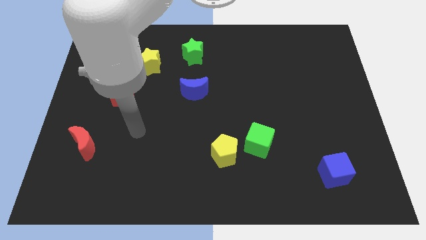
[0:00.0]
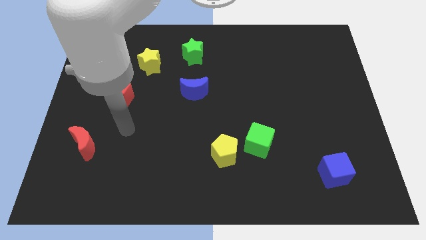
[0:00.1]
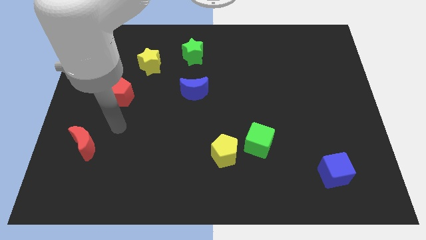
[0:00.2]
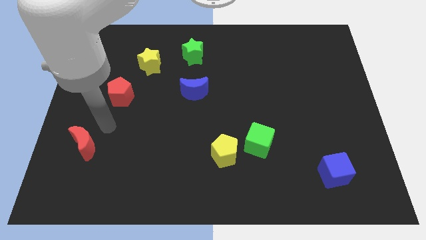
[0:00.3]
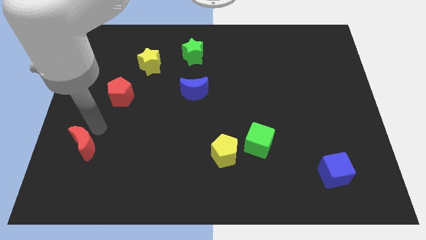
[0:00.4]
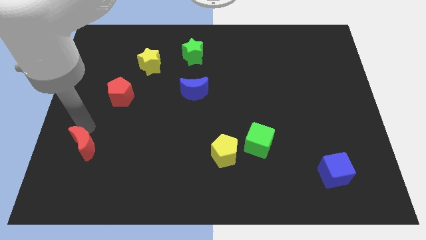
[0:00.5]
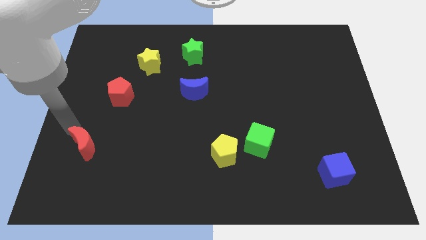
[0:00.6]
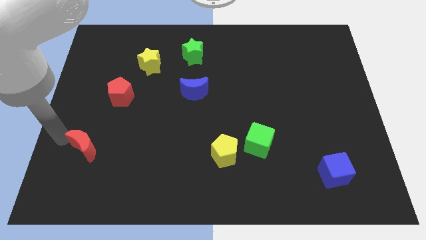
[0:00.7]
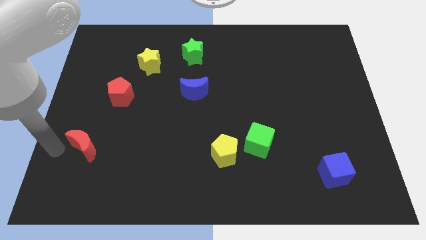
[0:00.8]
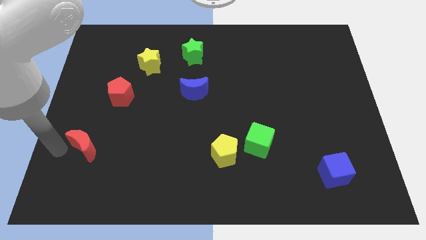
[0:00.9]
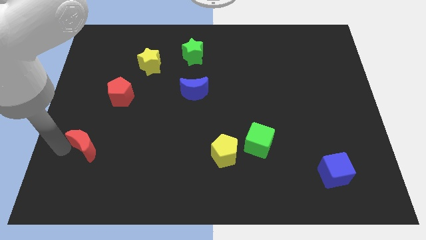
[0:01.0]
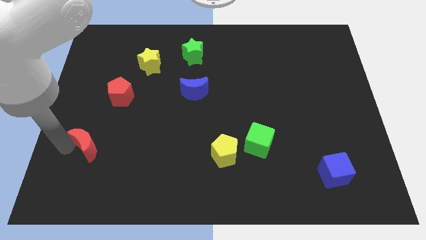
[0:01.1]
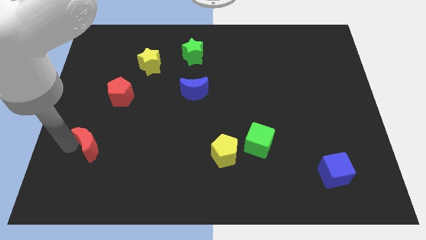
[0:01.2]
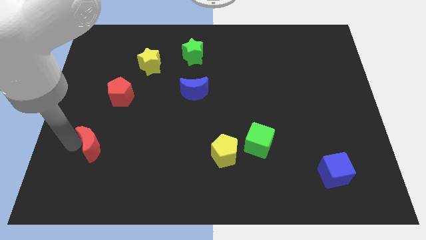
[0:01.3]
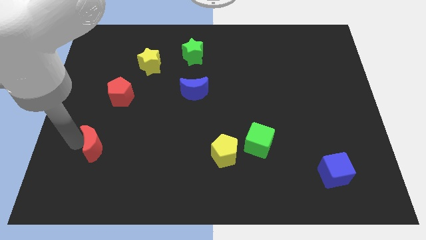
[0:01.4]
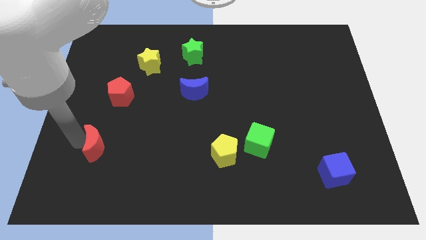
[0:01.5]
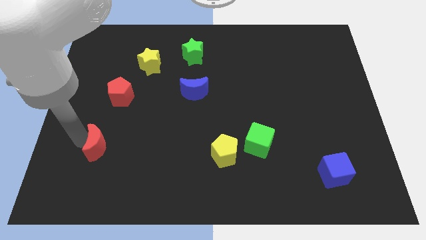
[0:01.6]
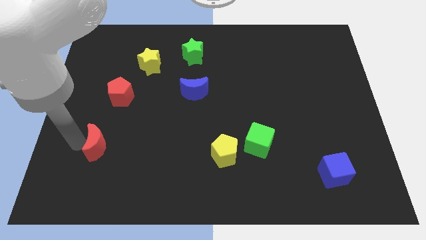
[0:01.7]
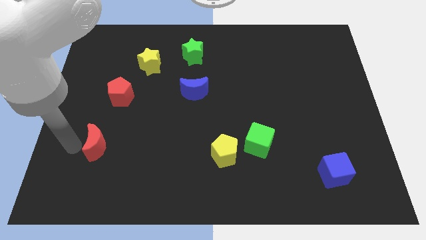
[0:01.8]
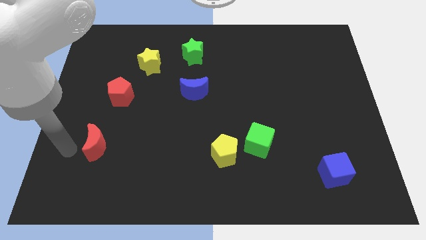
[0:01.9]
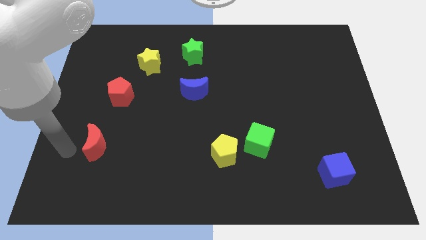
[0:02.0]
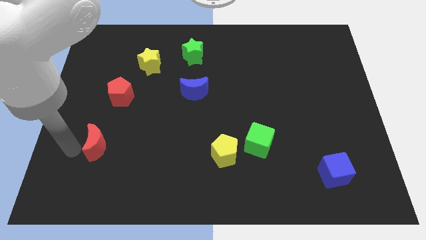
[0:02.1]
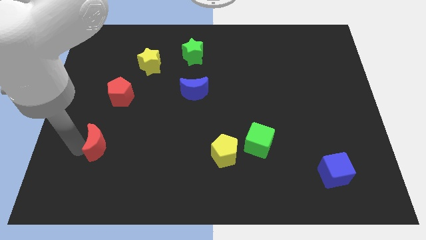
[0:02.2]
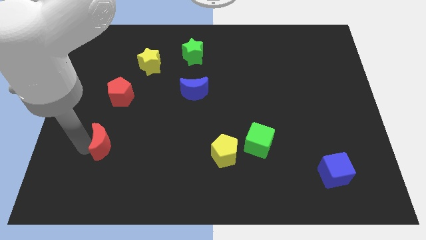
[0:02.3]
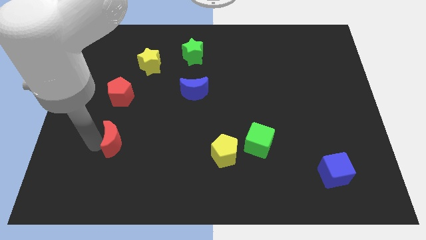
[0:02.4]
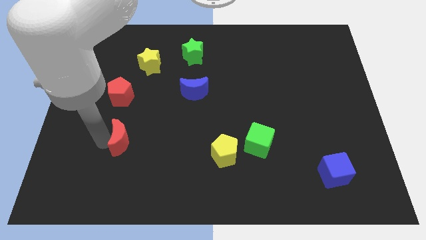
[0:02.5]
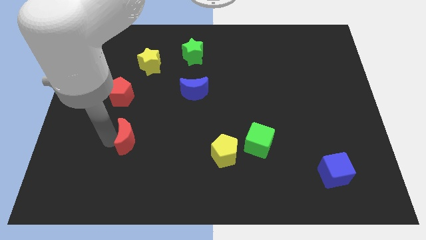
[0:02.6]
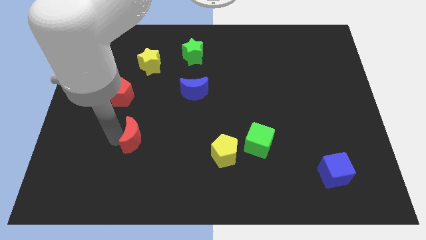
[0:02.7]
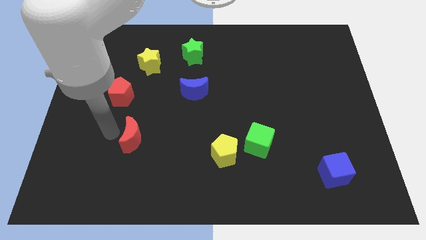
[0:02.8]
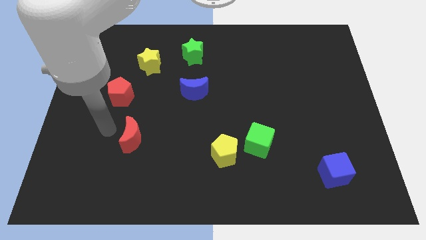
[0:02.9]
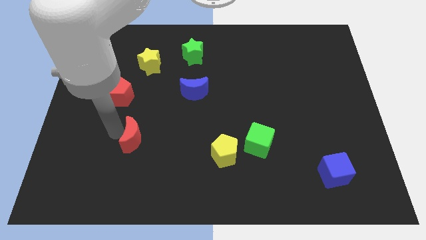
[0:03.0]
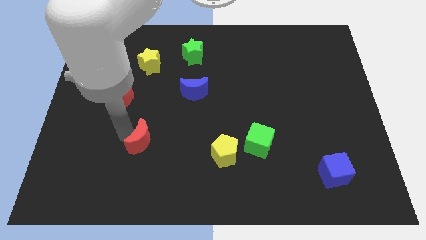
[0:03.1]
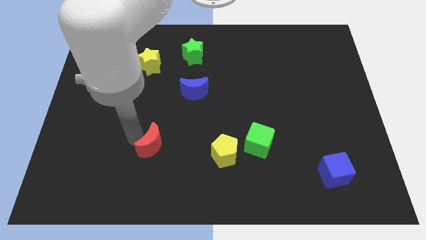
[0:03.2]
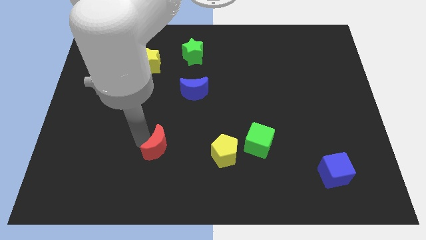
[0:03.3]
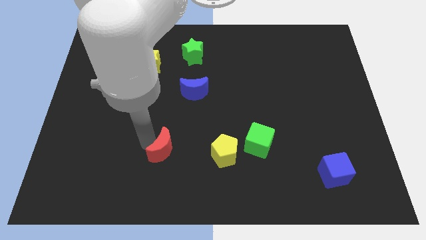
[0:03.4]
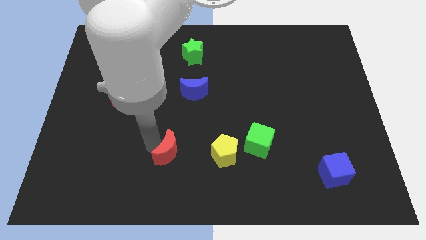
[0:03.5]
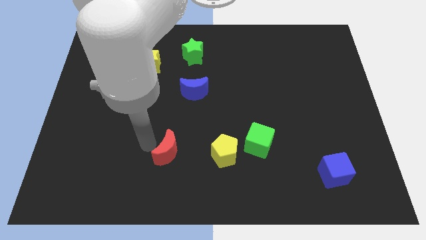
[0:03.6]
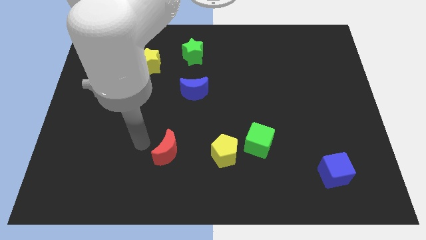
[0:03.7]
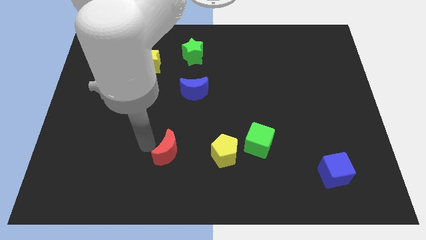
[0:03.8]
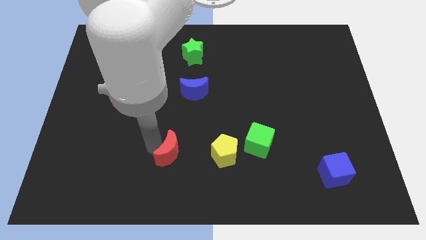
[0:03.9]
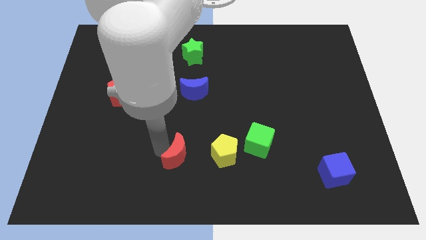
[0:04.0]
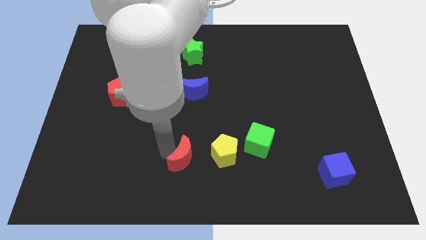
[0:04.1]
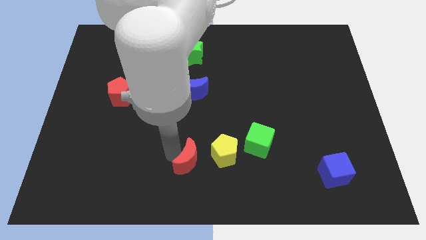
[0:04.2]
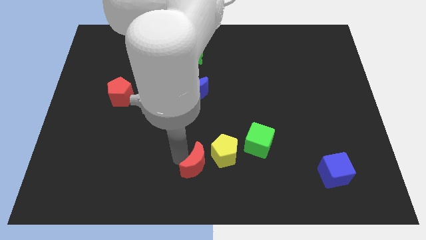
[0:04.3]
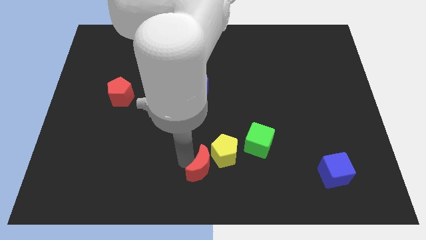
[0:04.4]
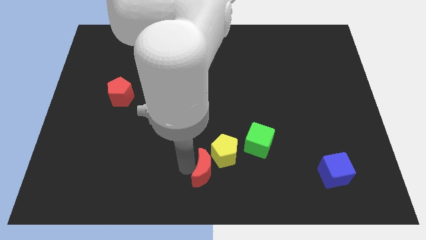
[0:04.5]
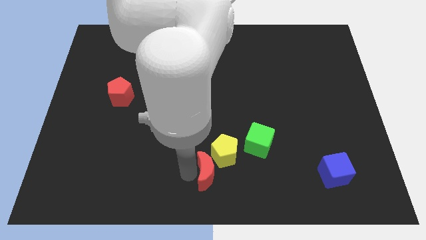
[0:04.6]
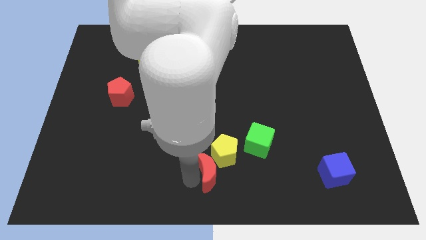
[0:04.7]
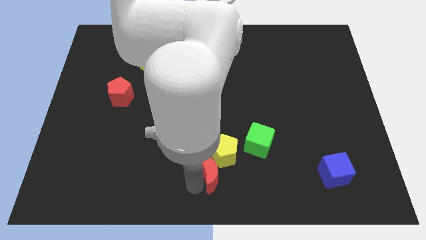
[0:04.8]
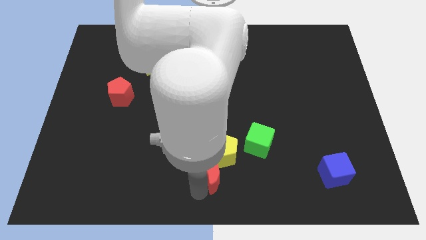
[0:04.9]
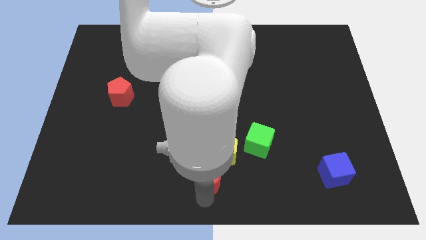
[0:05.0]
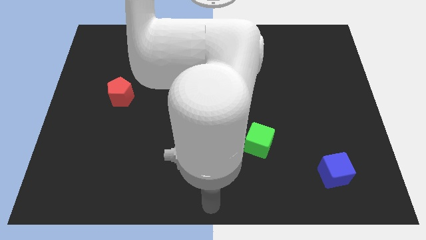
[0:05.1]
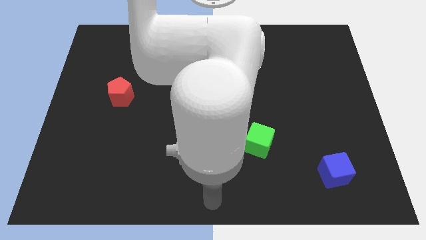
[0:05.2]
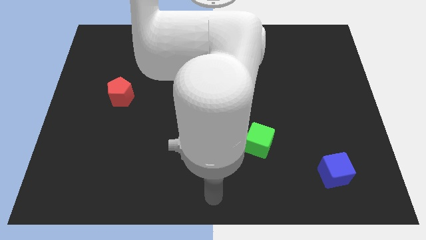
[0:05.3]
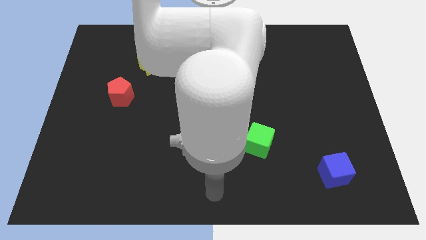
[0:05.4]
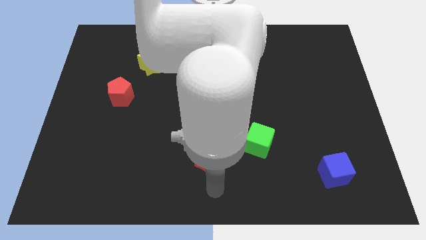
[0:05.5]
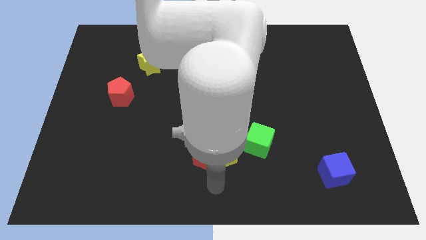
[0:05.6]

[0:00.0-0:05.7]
slide the red moon to the left side of the green cube

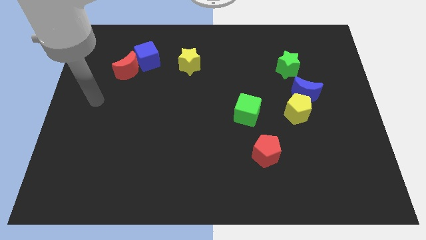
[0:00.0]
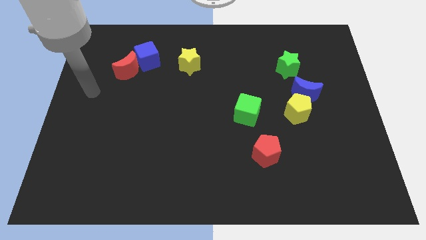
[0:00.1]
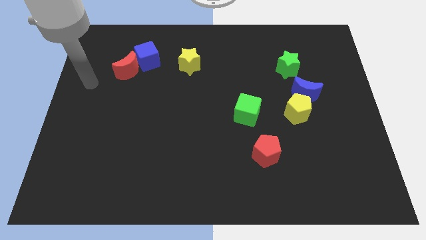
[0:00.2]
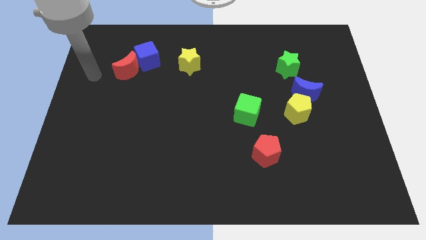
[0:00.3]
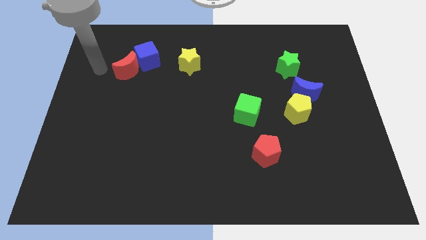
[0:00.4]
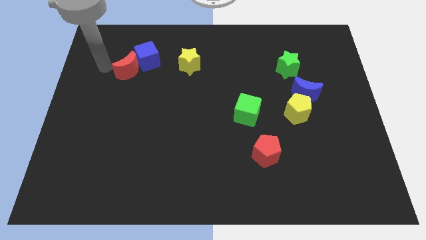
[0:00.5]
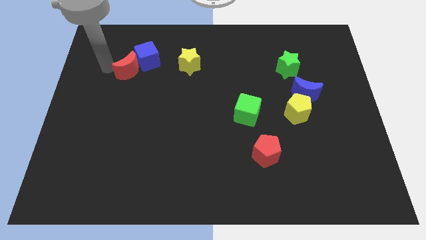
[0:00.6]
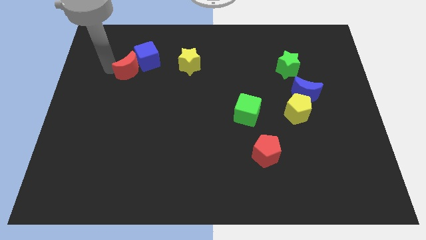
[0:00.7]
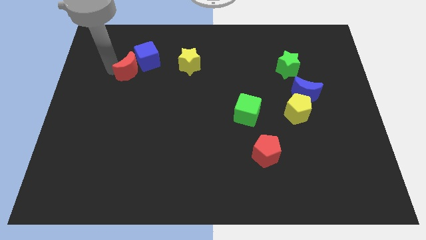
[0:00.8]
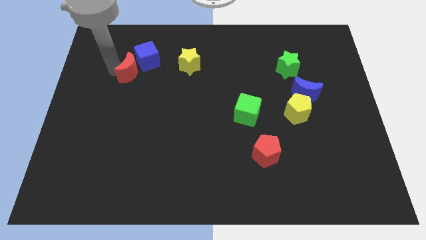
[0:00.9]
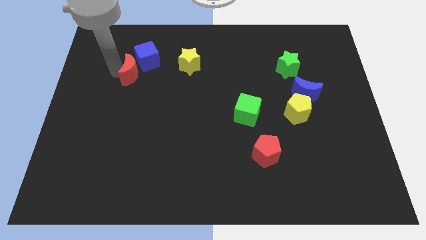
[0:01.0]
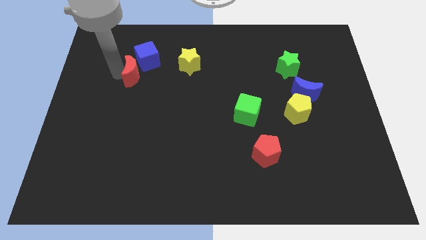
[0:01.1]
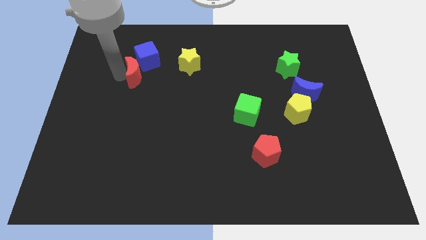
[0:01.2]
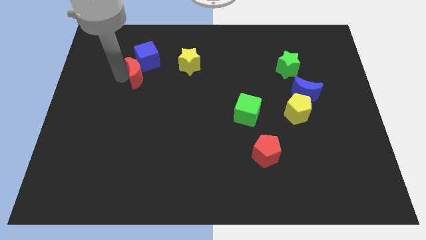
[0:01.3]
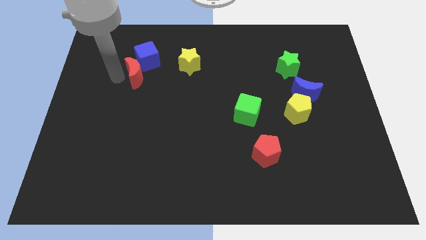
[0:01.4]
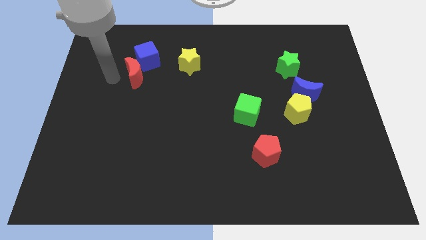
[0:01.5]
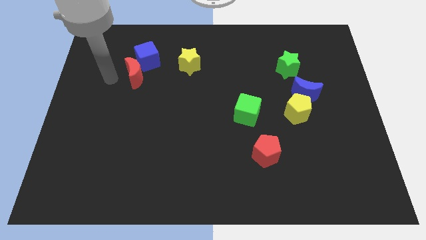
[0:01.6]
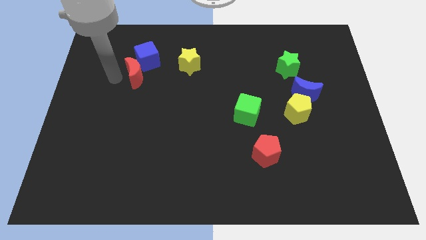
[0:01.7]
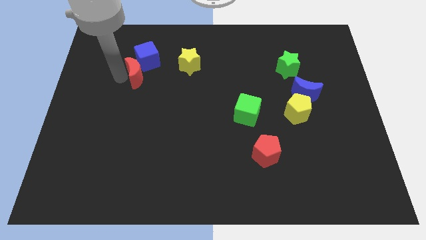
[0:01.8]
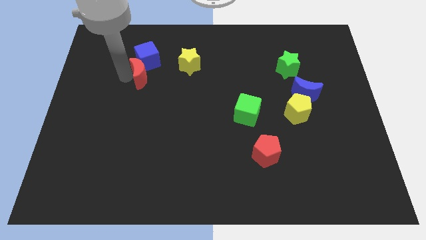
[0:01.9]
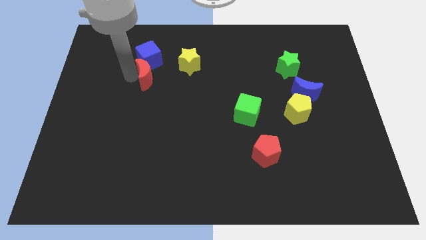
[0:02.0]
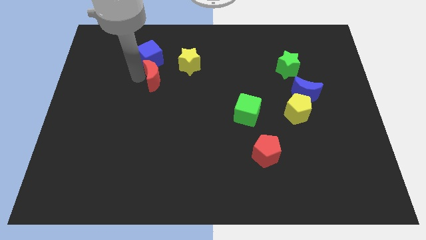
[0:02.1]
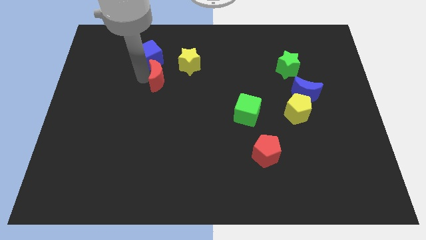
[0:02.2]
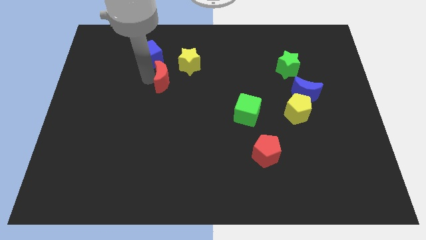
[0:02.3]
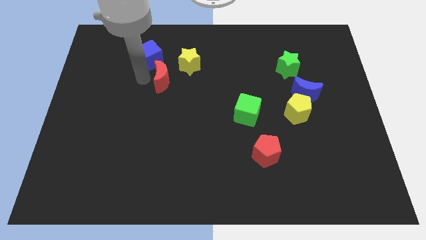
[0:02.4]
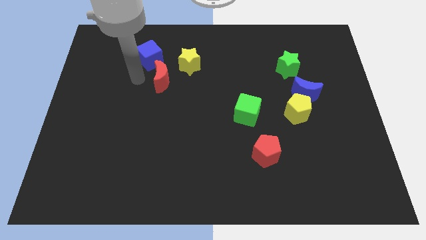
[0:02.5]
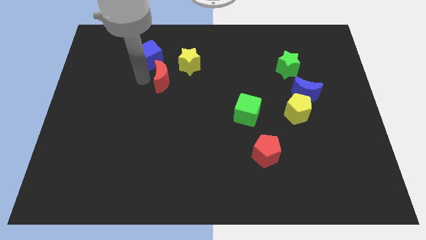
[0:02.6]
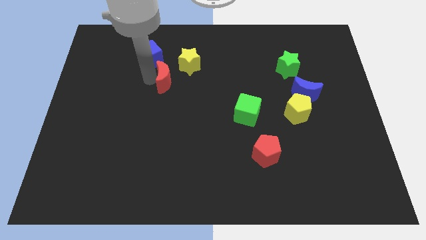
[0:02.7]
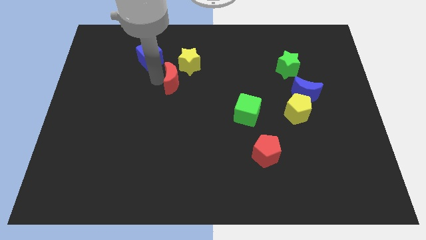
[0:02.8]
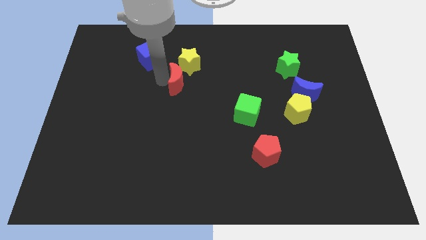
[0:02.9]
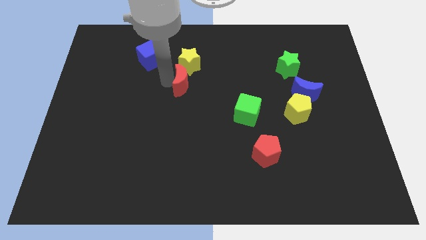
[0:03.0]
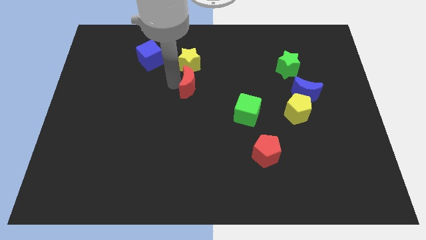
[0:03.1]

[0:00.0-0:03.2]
move the red moon to the bottom right side of the yellow star
